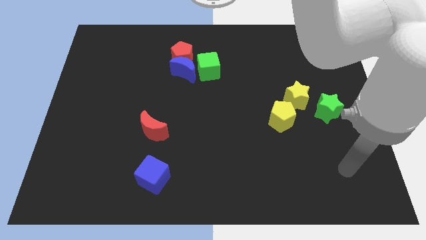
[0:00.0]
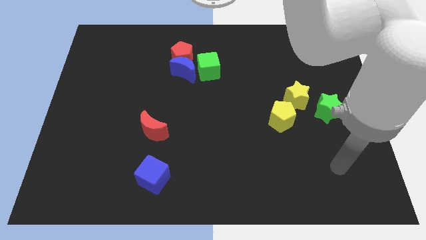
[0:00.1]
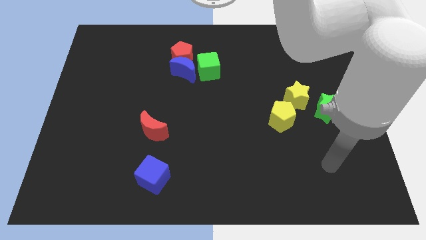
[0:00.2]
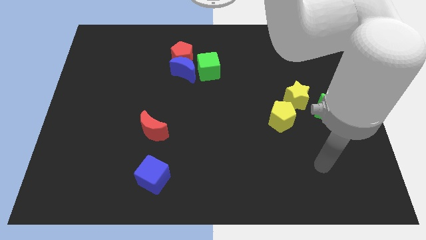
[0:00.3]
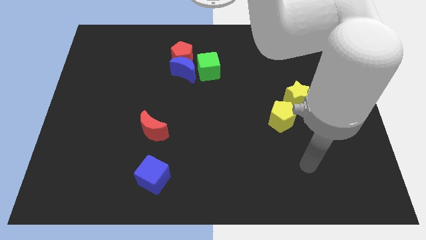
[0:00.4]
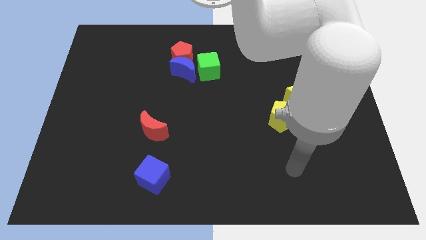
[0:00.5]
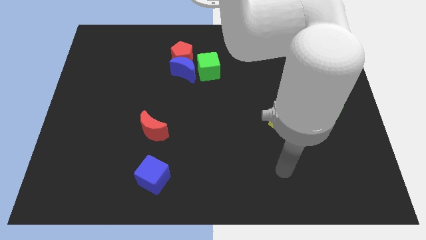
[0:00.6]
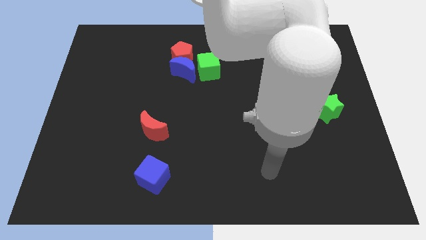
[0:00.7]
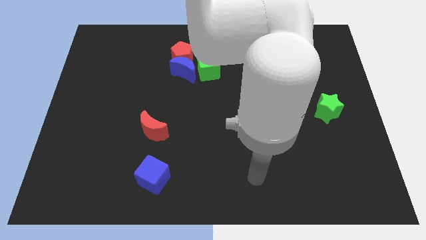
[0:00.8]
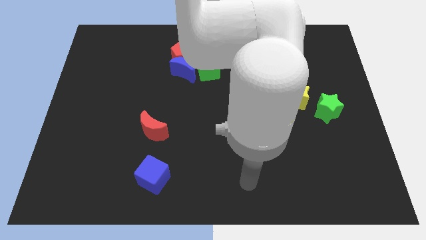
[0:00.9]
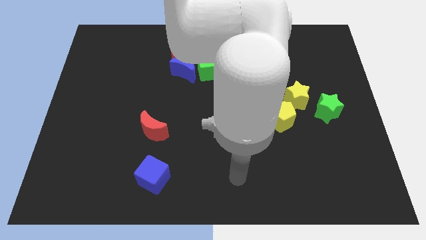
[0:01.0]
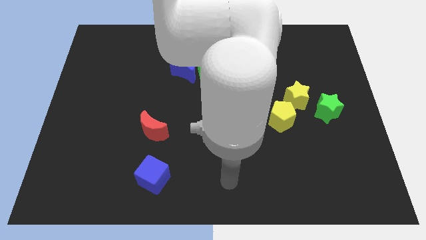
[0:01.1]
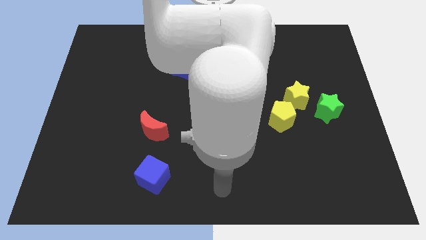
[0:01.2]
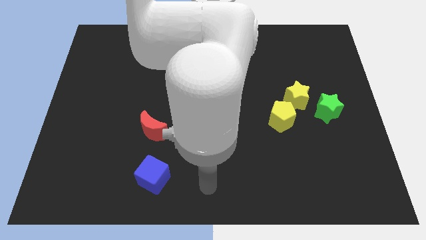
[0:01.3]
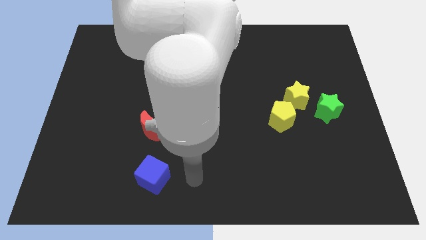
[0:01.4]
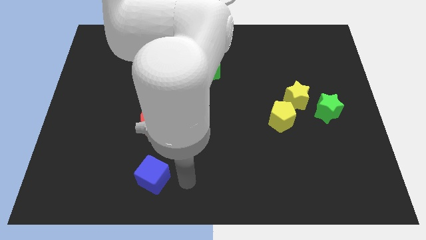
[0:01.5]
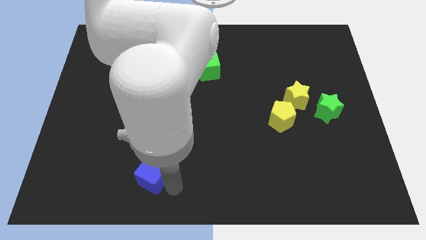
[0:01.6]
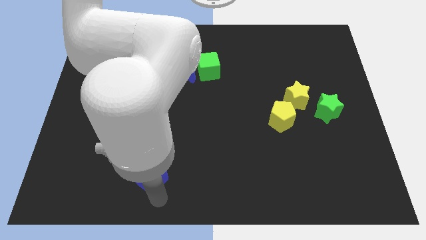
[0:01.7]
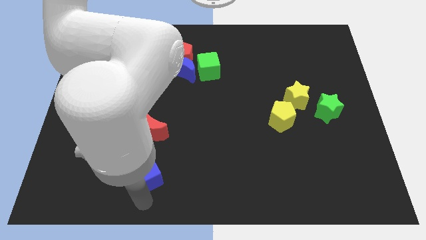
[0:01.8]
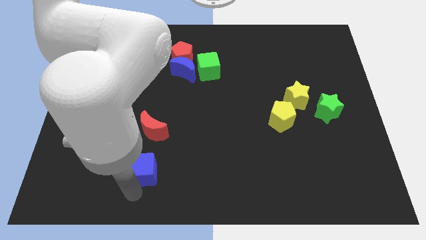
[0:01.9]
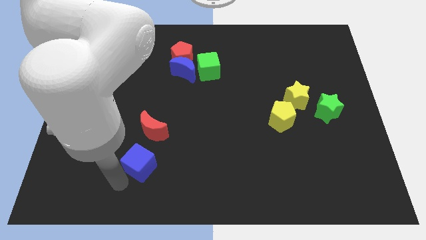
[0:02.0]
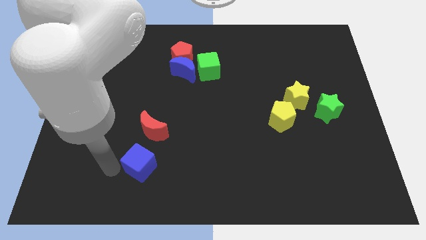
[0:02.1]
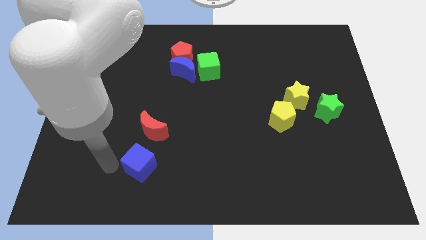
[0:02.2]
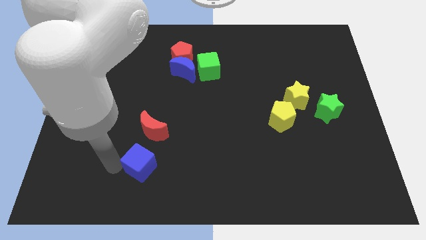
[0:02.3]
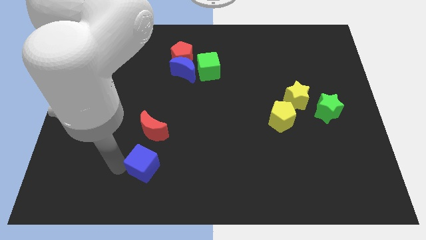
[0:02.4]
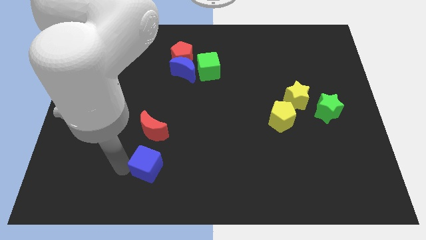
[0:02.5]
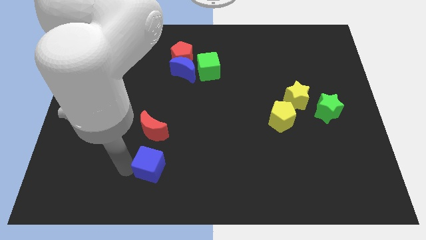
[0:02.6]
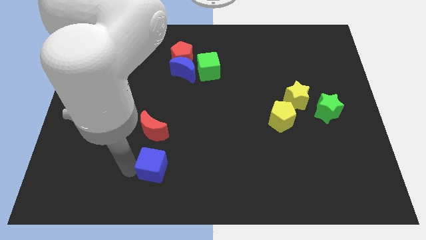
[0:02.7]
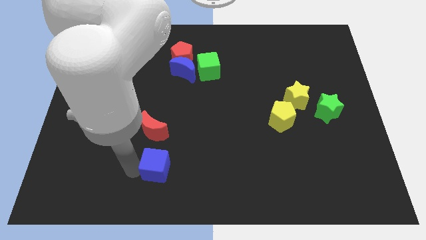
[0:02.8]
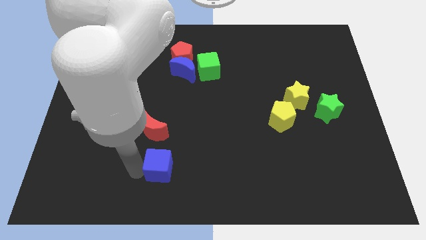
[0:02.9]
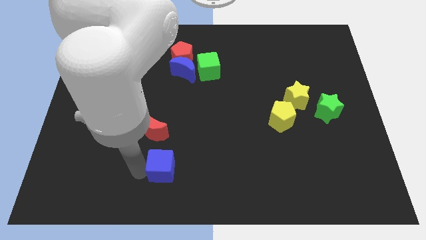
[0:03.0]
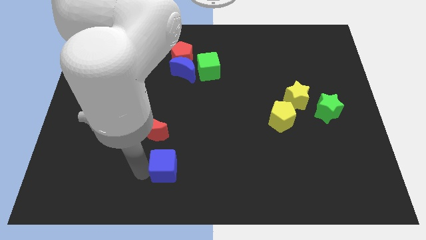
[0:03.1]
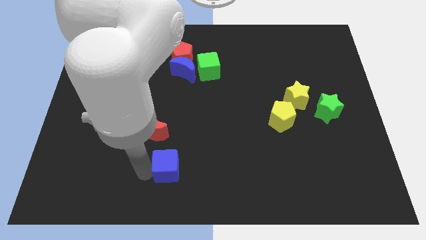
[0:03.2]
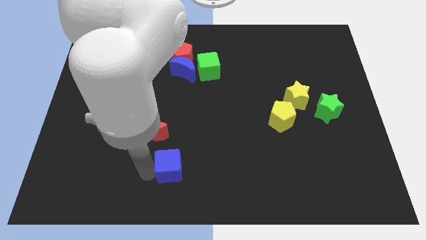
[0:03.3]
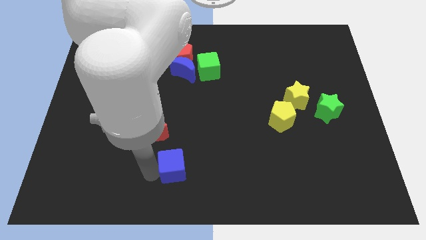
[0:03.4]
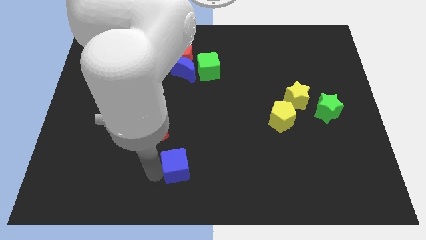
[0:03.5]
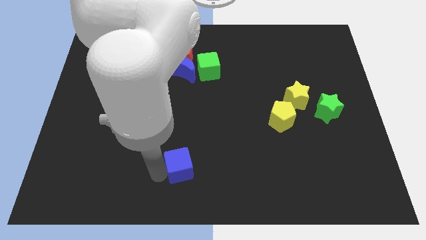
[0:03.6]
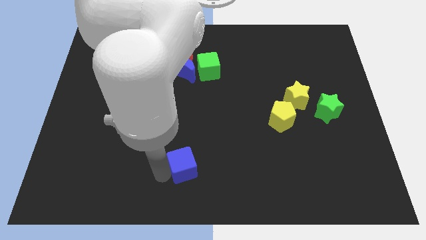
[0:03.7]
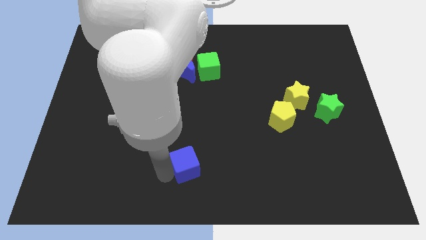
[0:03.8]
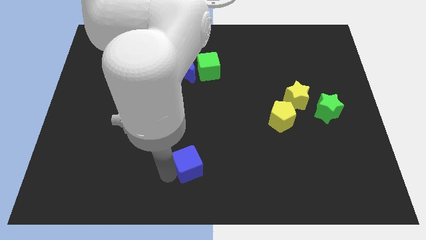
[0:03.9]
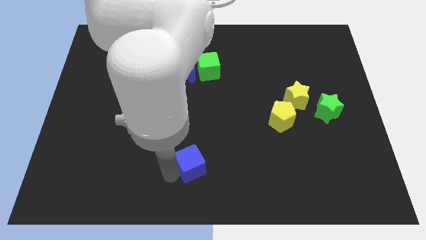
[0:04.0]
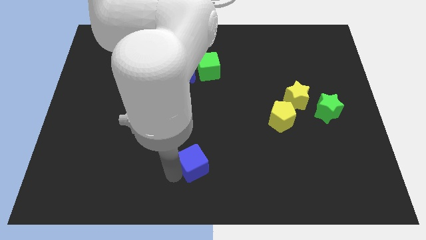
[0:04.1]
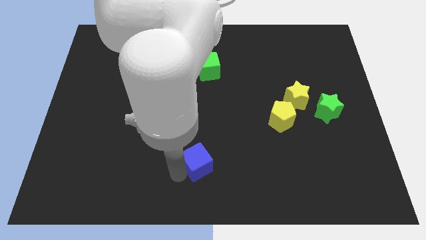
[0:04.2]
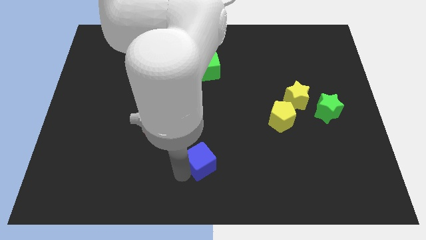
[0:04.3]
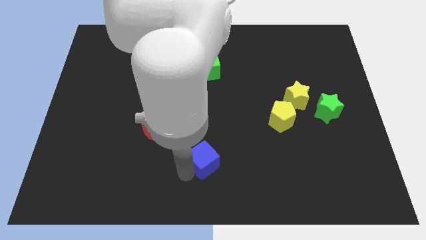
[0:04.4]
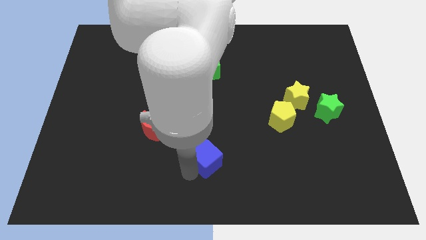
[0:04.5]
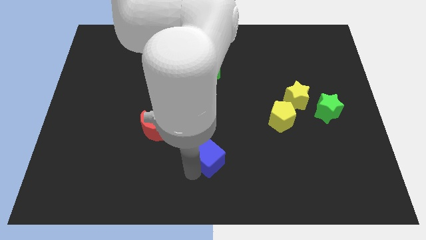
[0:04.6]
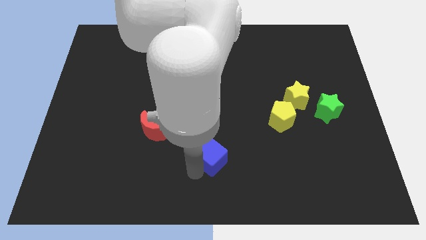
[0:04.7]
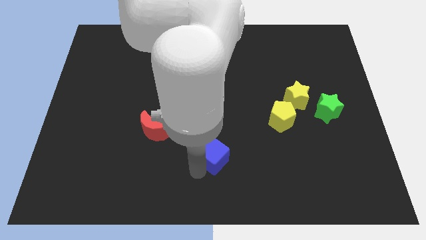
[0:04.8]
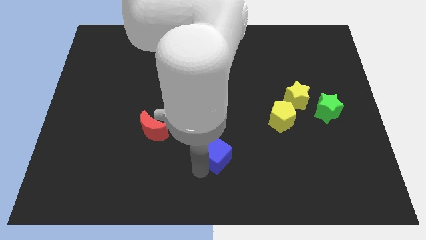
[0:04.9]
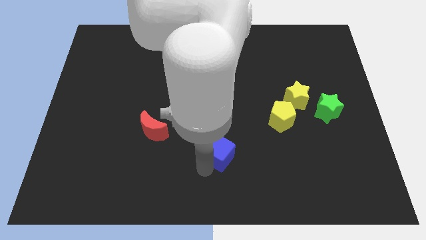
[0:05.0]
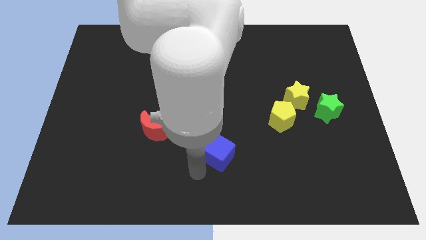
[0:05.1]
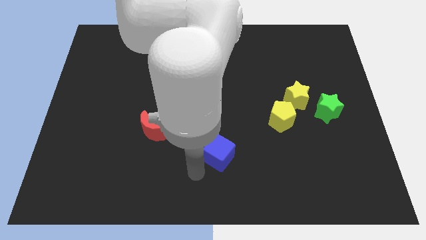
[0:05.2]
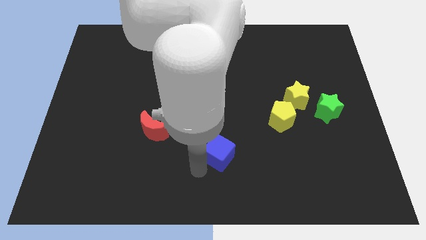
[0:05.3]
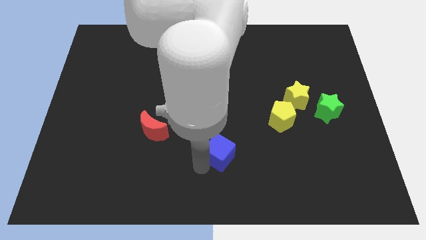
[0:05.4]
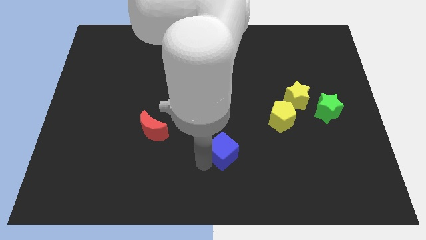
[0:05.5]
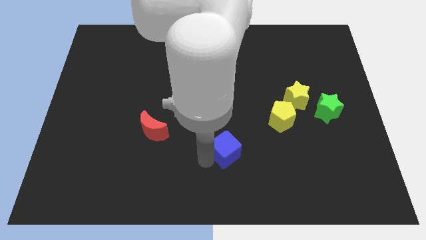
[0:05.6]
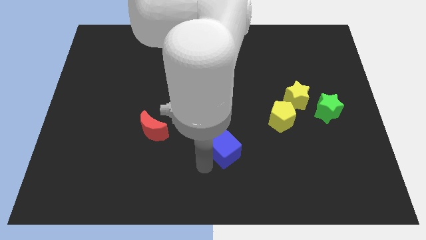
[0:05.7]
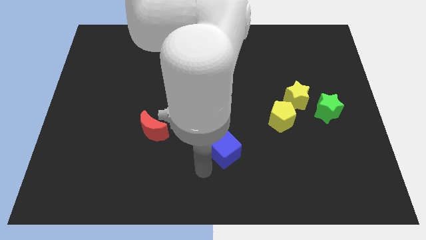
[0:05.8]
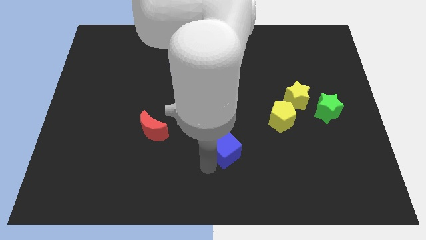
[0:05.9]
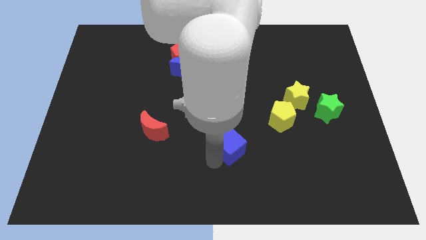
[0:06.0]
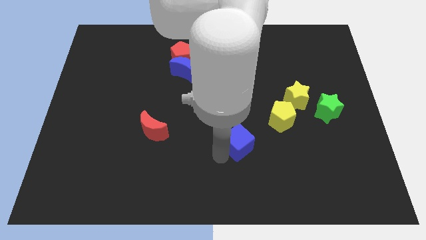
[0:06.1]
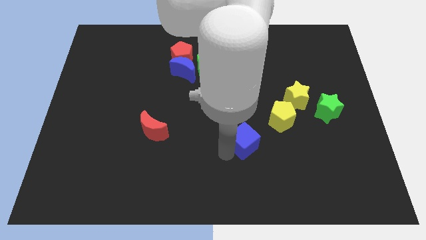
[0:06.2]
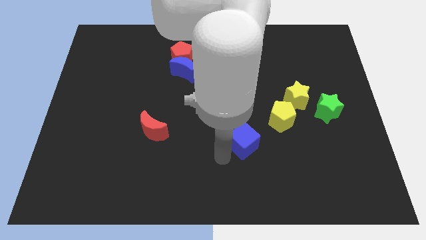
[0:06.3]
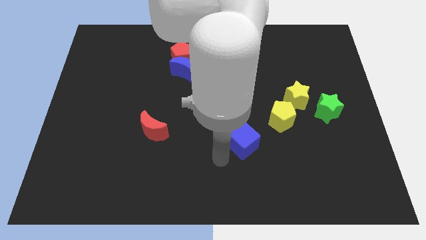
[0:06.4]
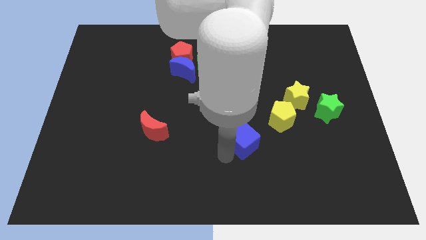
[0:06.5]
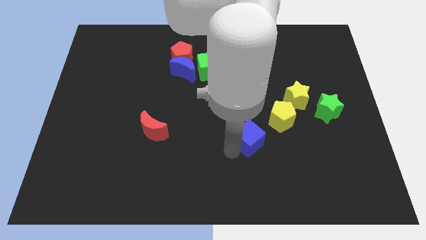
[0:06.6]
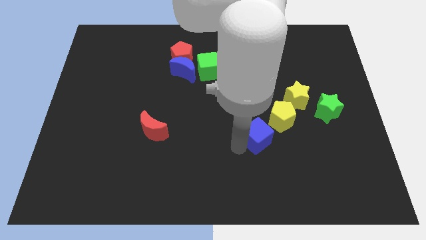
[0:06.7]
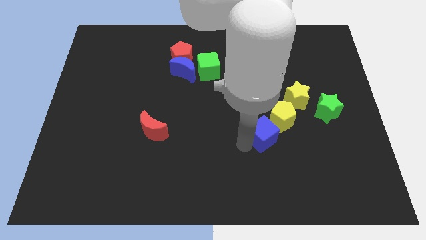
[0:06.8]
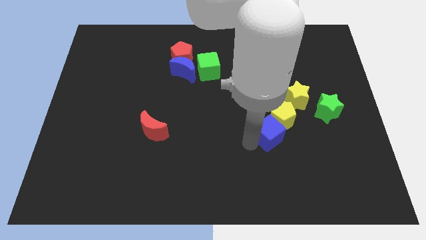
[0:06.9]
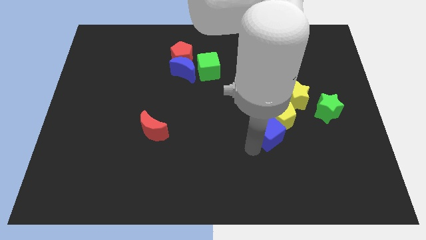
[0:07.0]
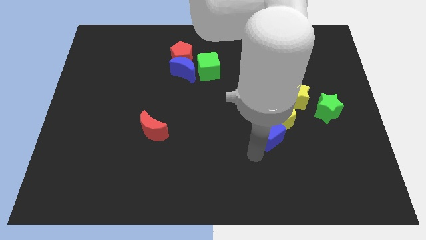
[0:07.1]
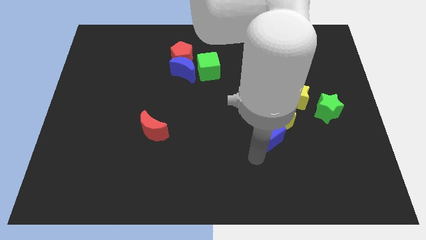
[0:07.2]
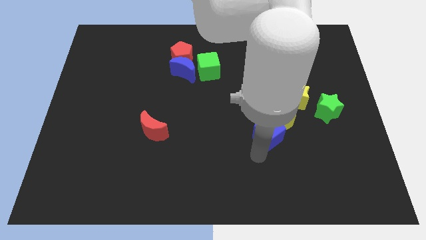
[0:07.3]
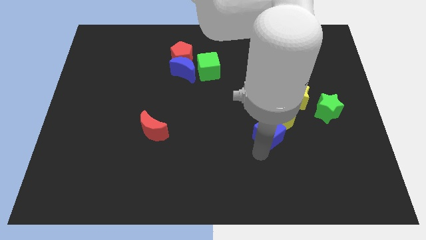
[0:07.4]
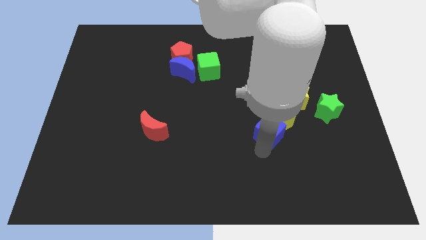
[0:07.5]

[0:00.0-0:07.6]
slide the blue cube diagonally down and to the left of the yellow star
